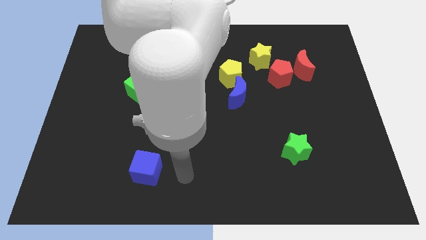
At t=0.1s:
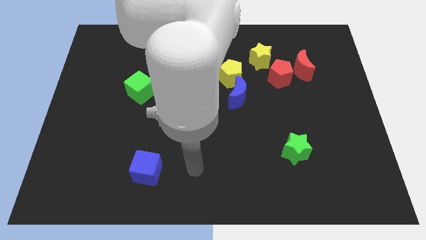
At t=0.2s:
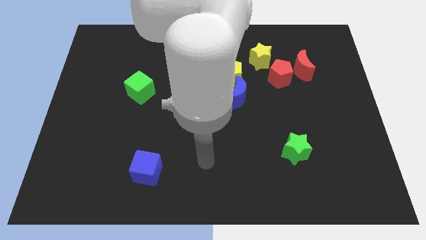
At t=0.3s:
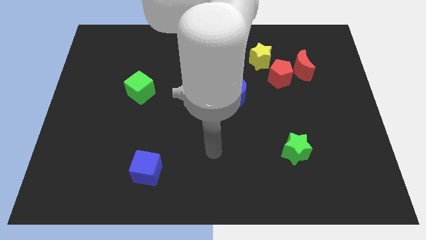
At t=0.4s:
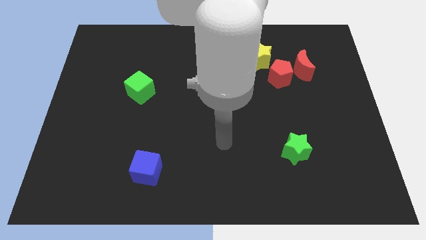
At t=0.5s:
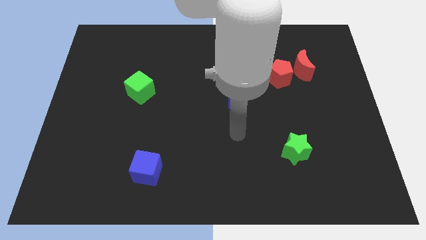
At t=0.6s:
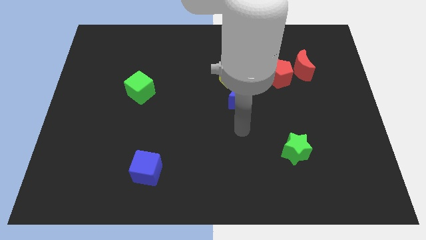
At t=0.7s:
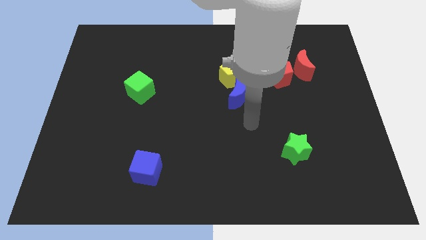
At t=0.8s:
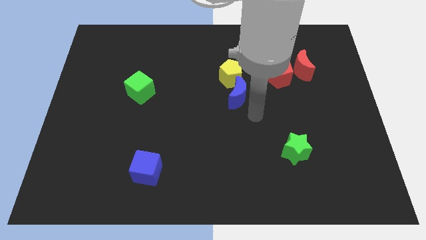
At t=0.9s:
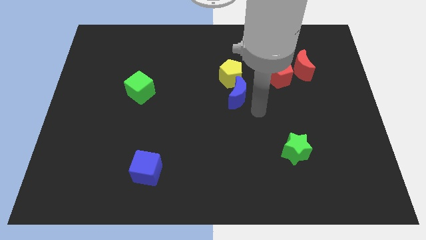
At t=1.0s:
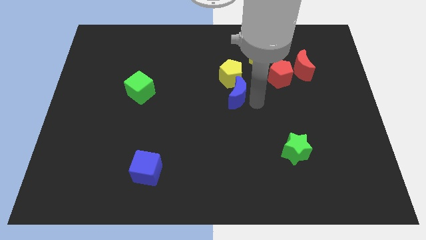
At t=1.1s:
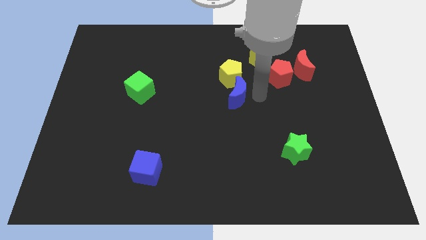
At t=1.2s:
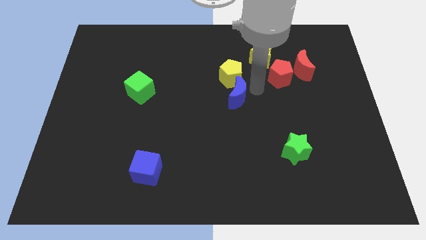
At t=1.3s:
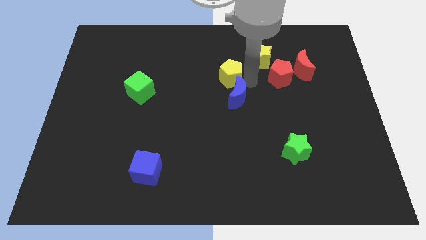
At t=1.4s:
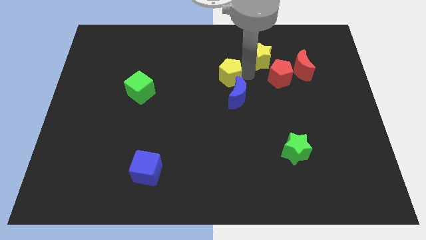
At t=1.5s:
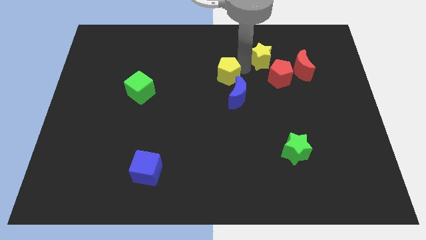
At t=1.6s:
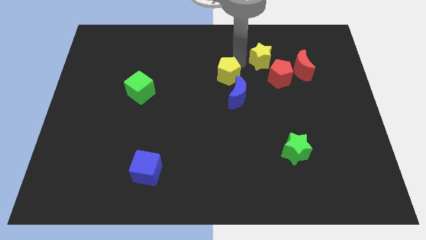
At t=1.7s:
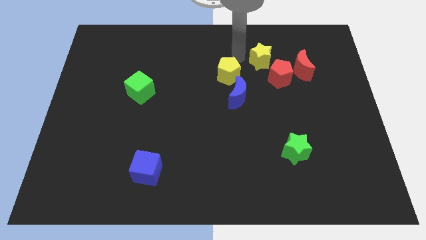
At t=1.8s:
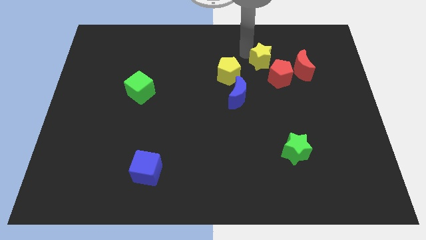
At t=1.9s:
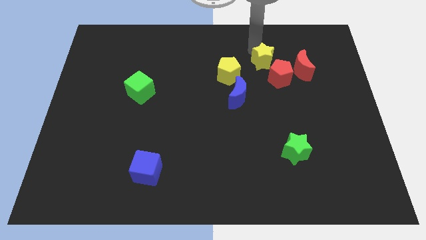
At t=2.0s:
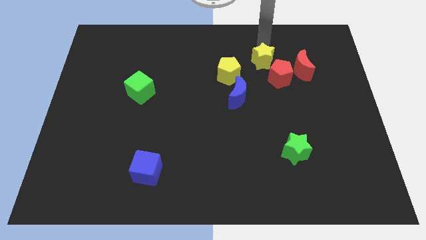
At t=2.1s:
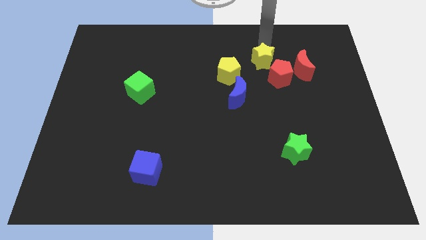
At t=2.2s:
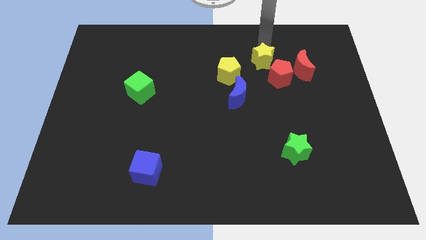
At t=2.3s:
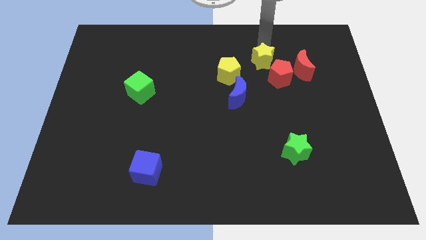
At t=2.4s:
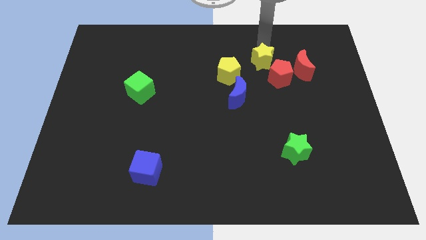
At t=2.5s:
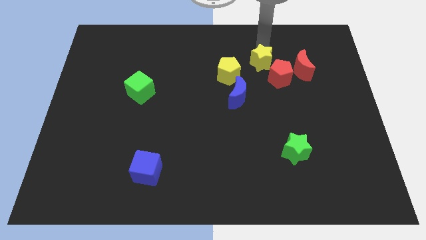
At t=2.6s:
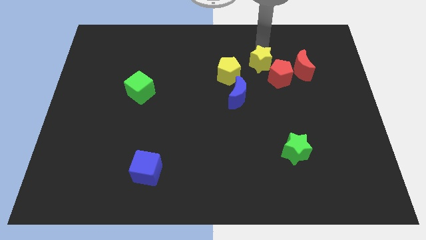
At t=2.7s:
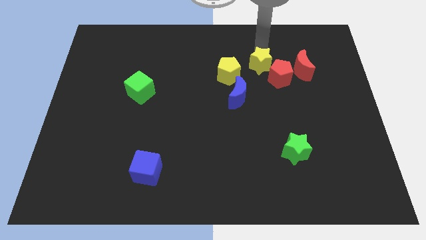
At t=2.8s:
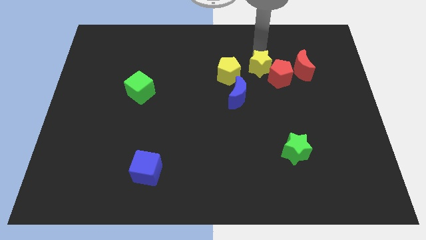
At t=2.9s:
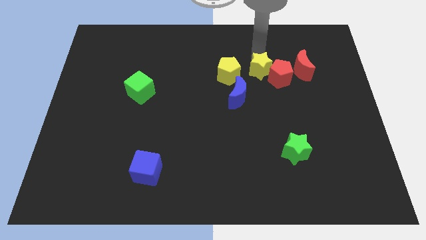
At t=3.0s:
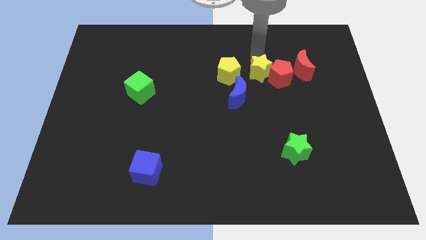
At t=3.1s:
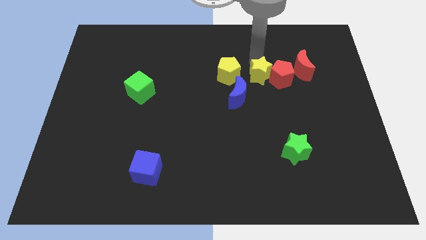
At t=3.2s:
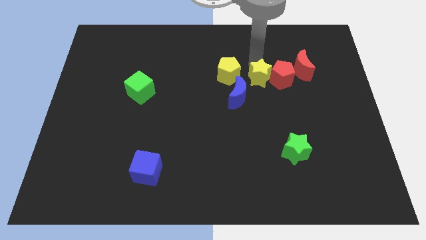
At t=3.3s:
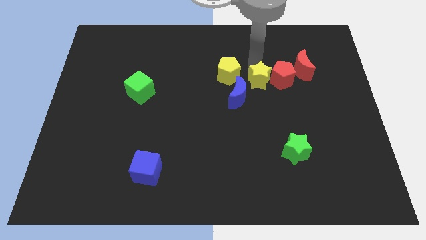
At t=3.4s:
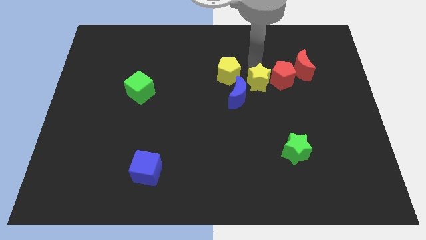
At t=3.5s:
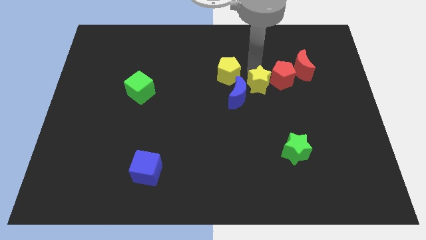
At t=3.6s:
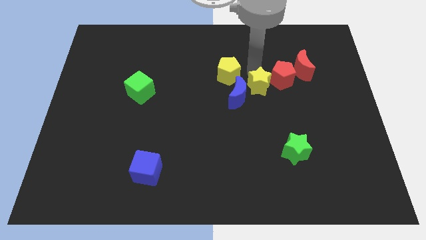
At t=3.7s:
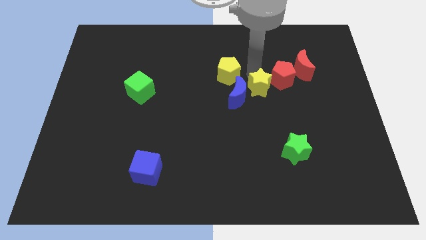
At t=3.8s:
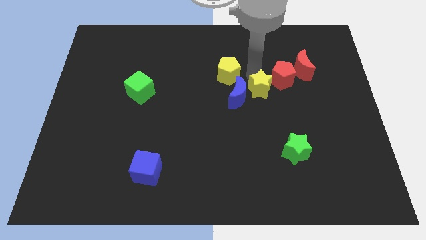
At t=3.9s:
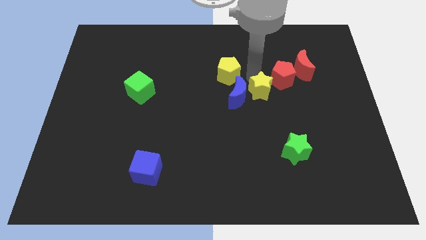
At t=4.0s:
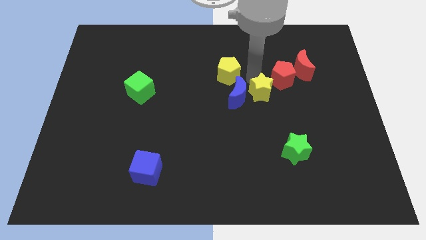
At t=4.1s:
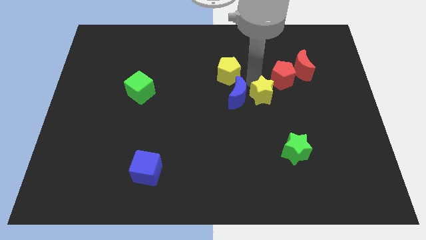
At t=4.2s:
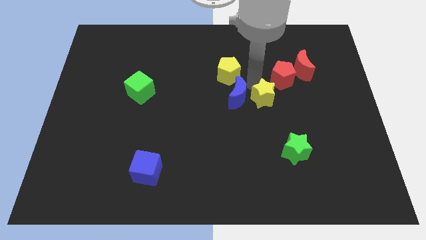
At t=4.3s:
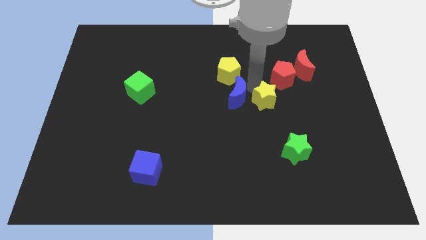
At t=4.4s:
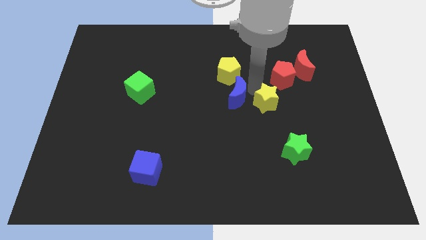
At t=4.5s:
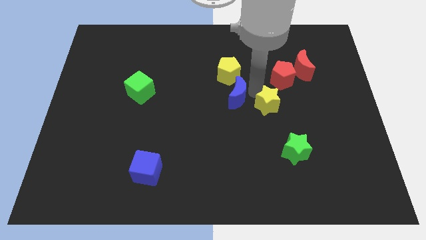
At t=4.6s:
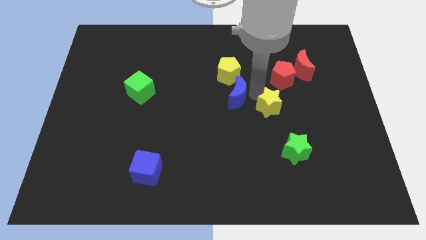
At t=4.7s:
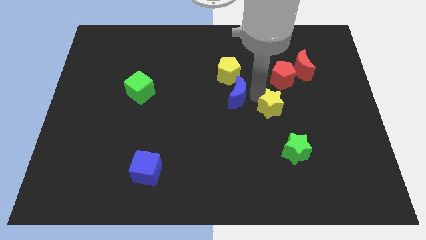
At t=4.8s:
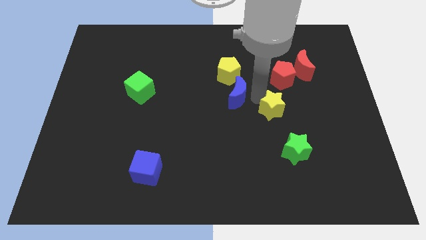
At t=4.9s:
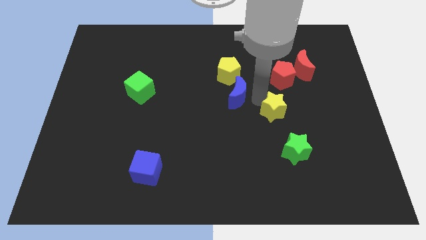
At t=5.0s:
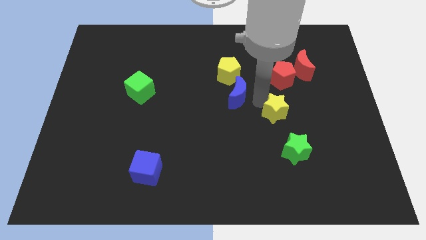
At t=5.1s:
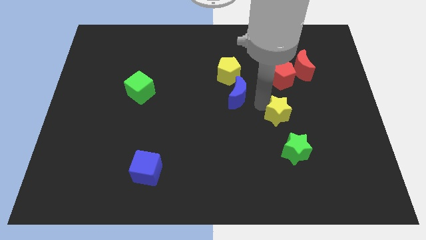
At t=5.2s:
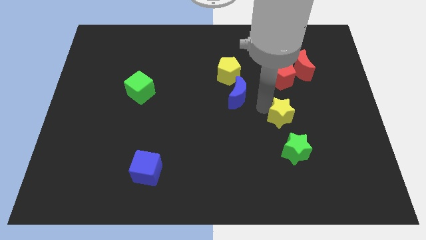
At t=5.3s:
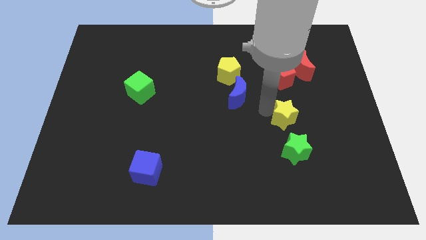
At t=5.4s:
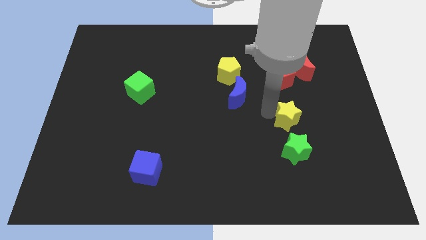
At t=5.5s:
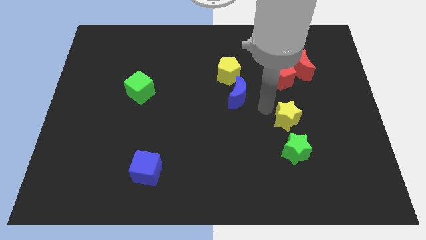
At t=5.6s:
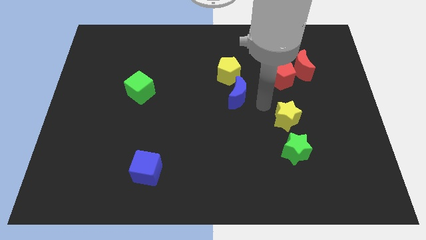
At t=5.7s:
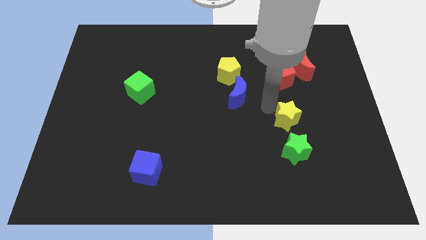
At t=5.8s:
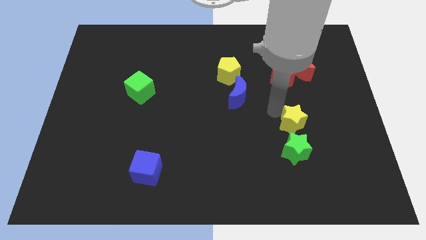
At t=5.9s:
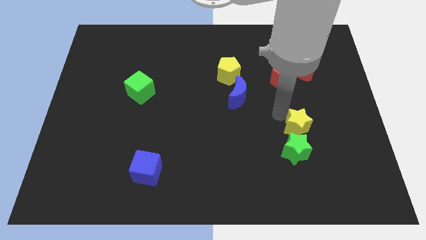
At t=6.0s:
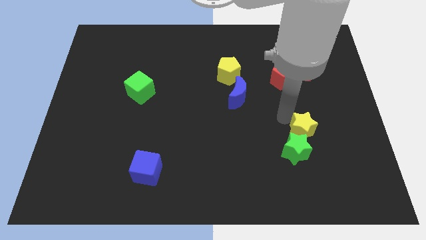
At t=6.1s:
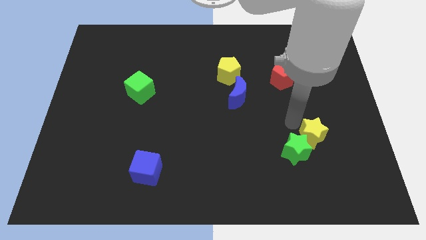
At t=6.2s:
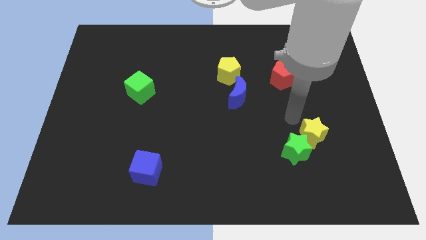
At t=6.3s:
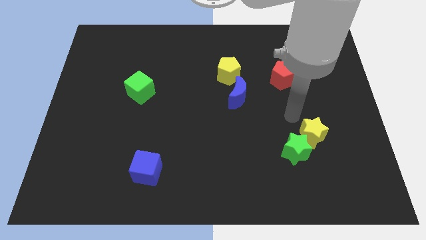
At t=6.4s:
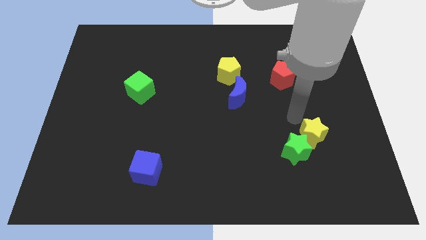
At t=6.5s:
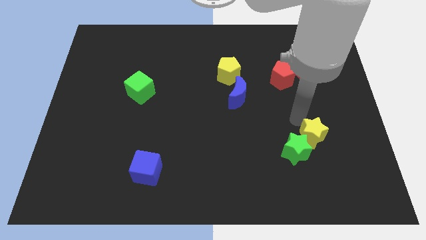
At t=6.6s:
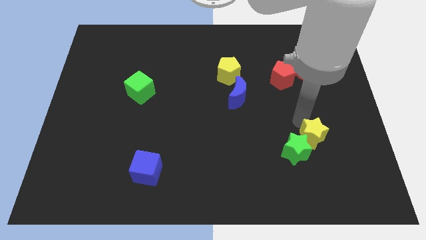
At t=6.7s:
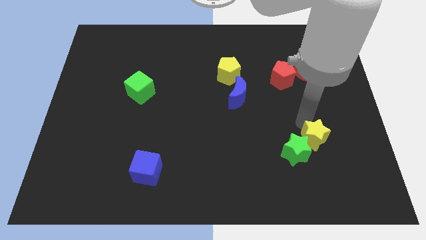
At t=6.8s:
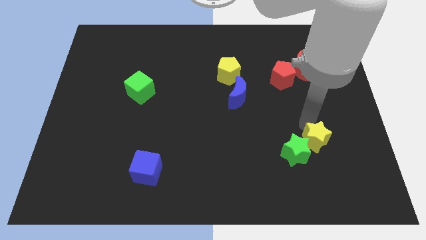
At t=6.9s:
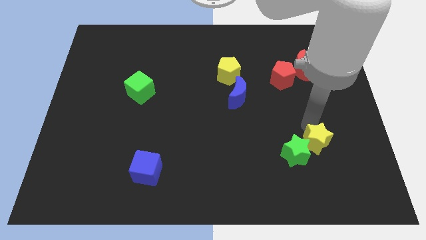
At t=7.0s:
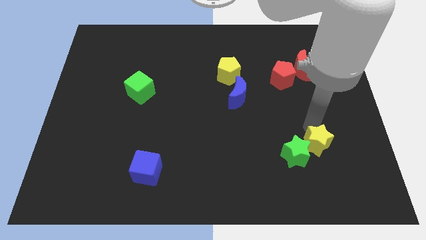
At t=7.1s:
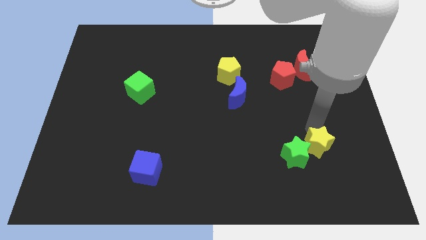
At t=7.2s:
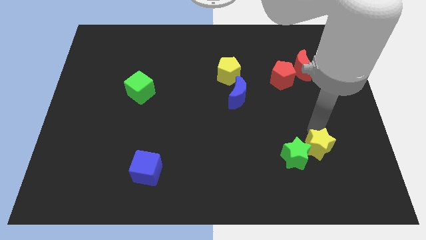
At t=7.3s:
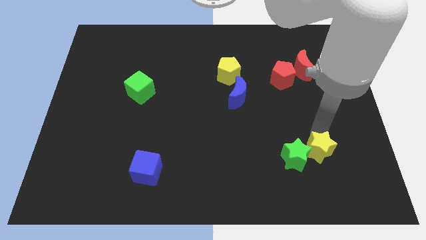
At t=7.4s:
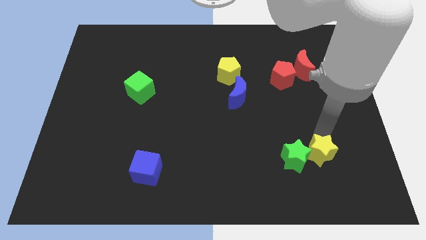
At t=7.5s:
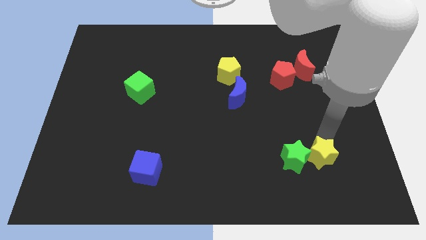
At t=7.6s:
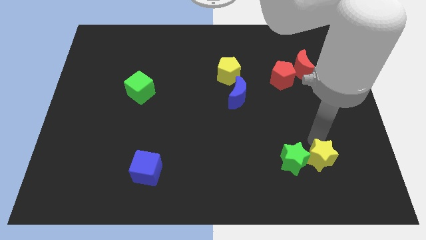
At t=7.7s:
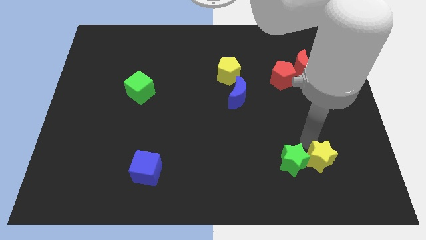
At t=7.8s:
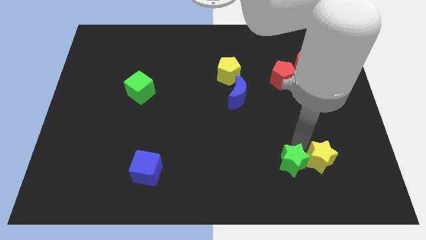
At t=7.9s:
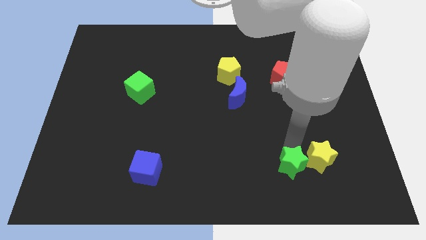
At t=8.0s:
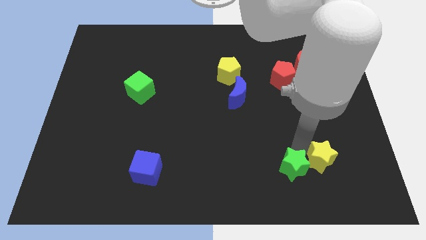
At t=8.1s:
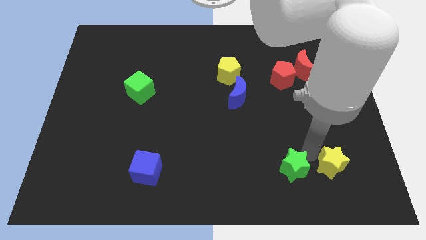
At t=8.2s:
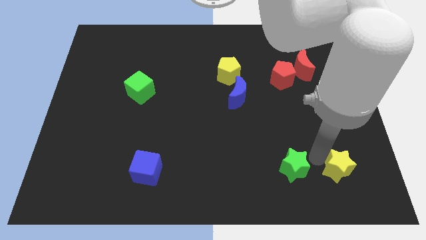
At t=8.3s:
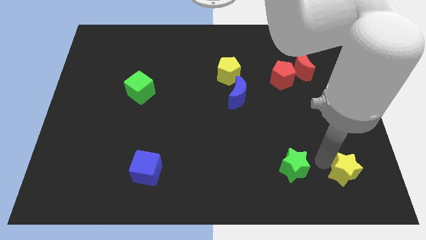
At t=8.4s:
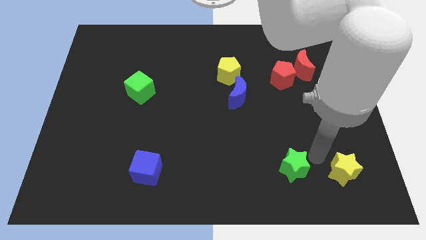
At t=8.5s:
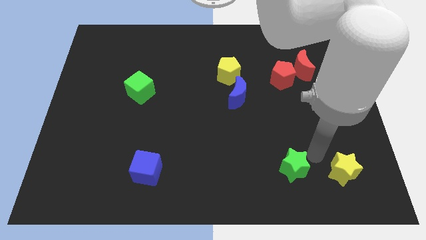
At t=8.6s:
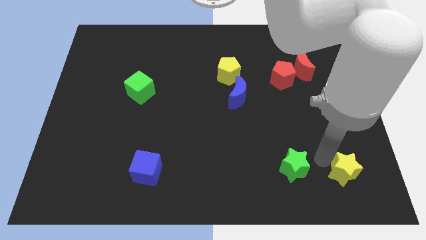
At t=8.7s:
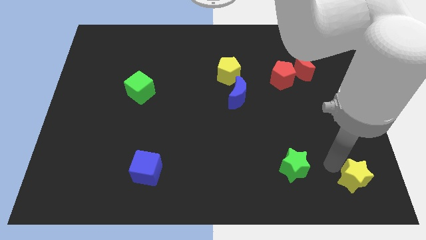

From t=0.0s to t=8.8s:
put the yellow star to the lower right corner
